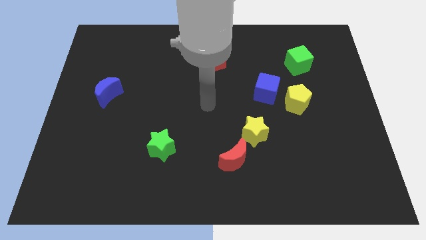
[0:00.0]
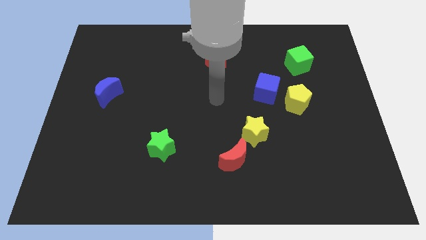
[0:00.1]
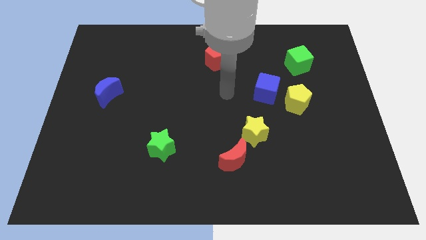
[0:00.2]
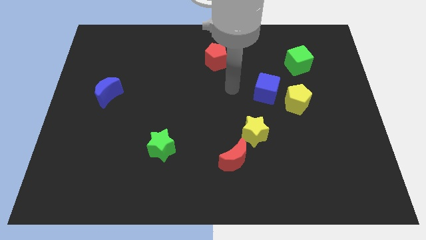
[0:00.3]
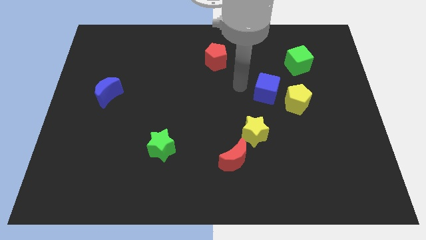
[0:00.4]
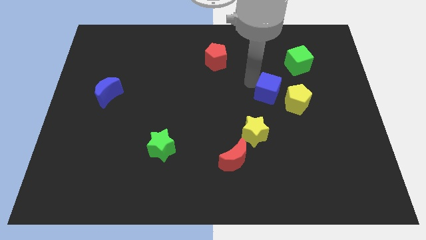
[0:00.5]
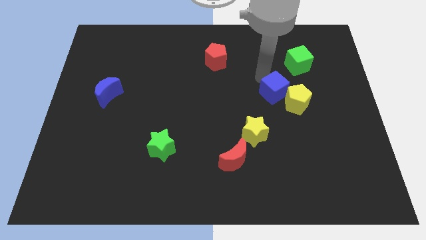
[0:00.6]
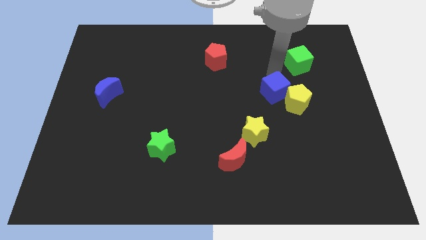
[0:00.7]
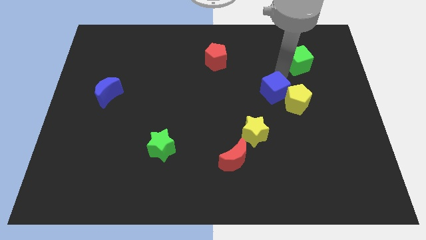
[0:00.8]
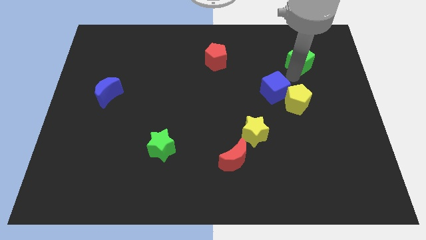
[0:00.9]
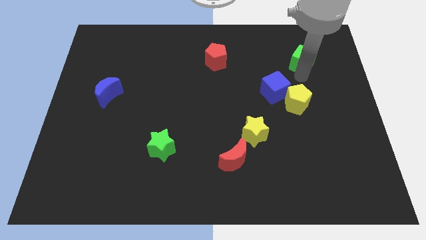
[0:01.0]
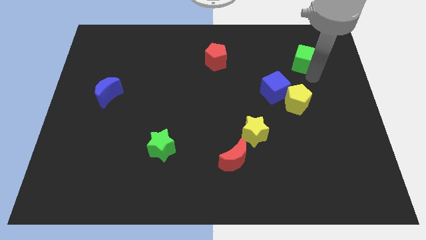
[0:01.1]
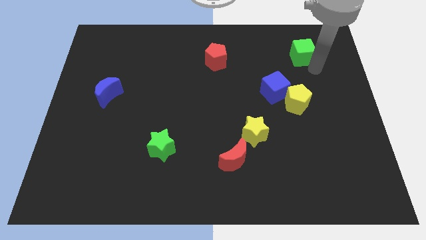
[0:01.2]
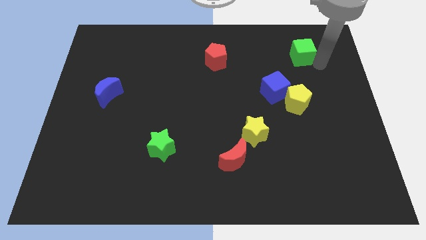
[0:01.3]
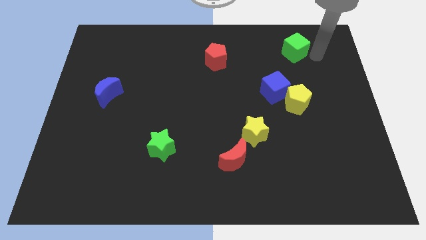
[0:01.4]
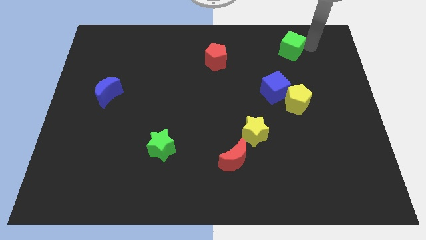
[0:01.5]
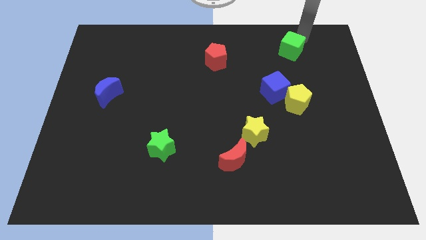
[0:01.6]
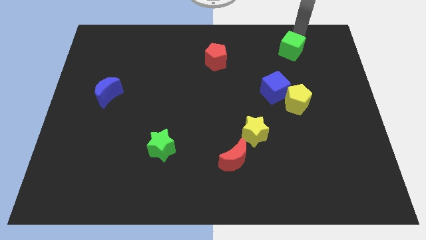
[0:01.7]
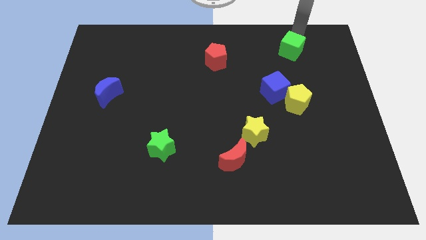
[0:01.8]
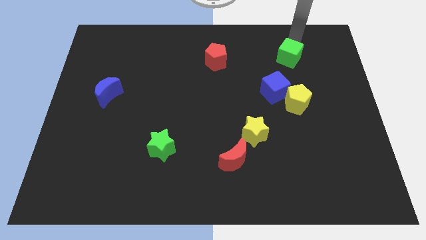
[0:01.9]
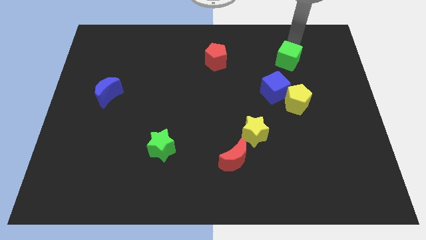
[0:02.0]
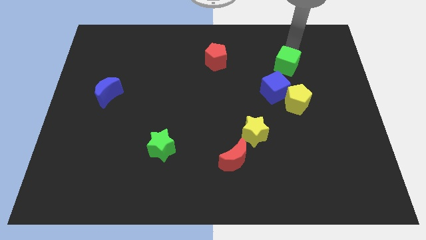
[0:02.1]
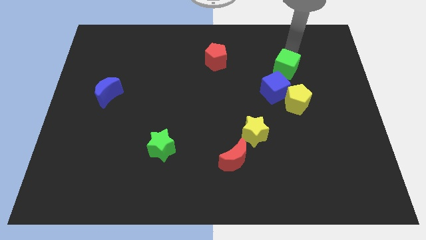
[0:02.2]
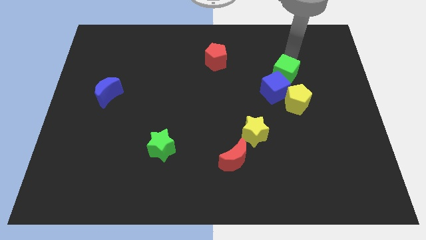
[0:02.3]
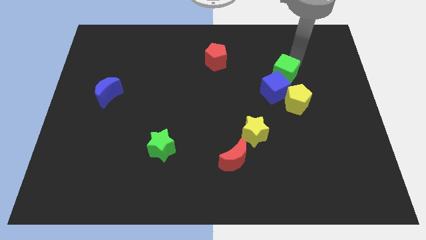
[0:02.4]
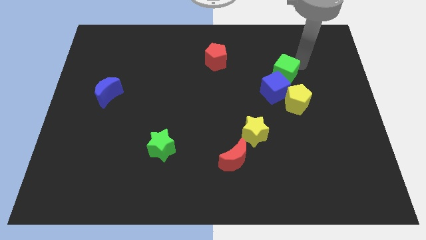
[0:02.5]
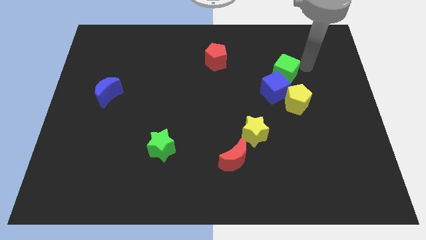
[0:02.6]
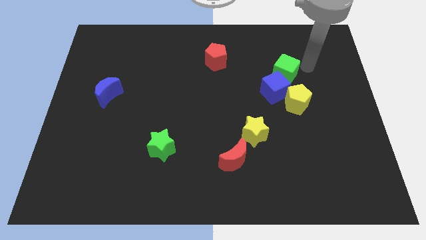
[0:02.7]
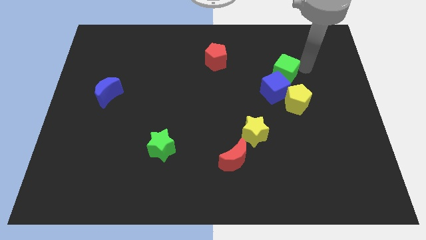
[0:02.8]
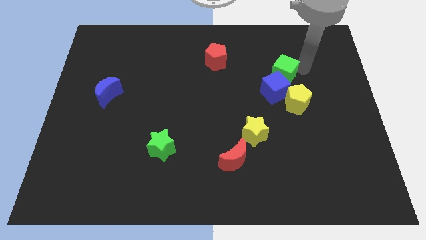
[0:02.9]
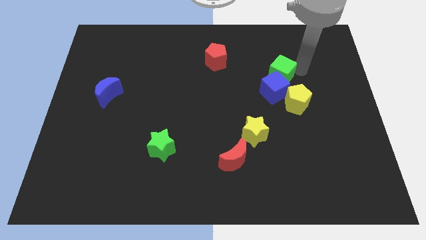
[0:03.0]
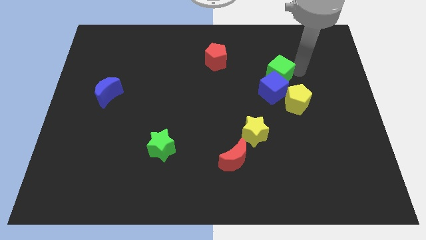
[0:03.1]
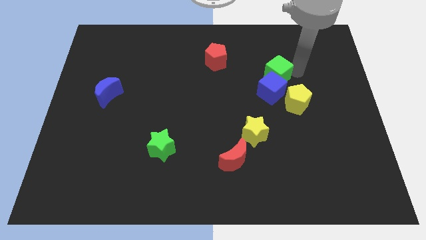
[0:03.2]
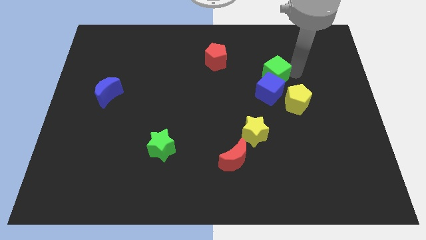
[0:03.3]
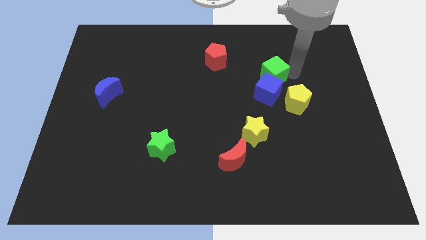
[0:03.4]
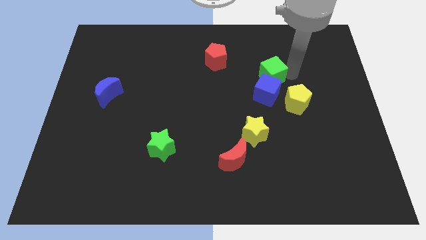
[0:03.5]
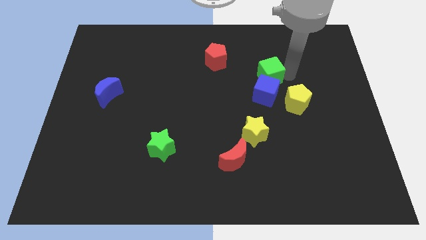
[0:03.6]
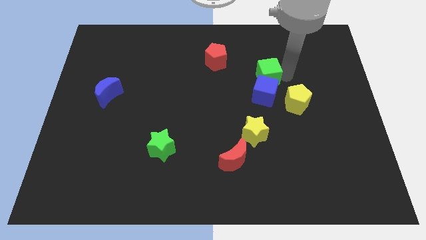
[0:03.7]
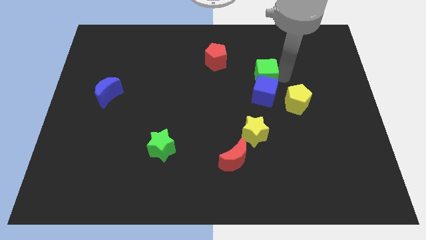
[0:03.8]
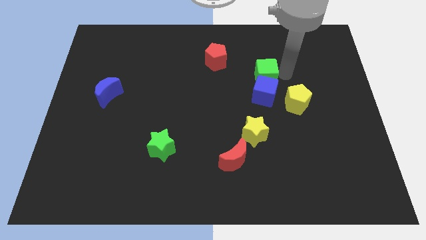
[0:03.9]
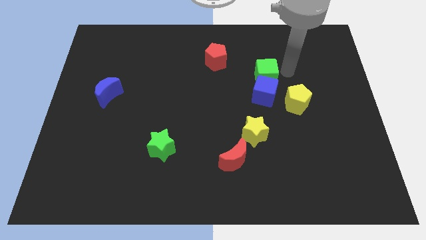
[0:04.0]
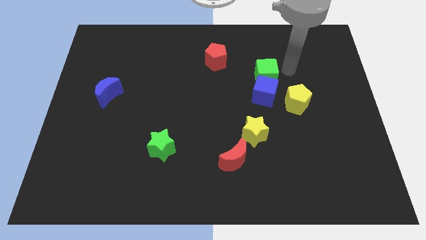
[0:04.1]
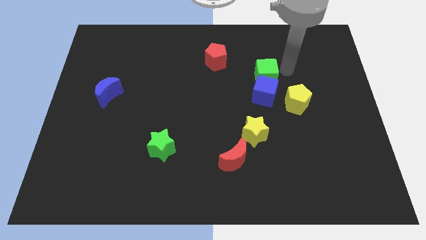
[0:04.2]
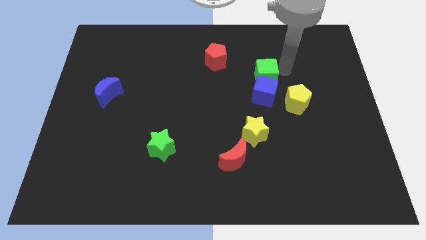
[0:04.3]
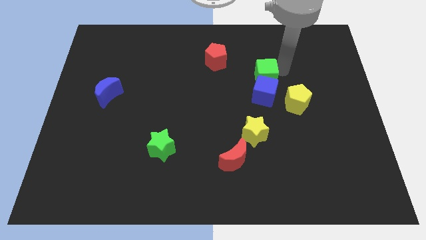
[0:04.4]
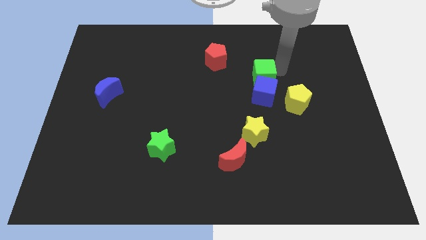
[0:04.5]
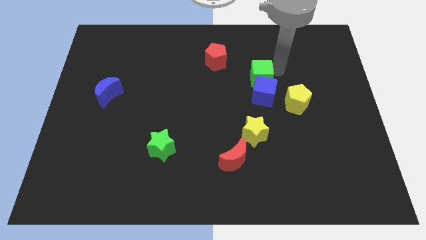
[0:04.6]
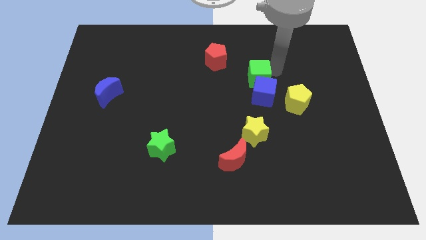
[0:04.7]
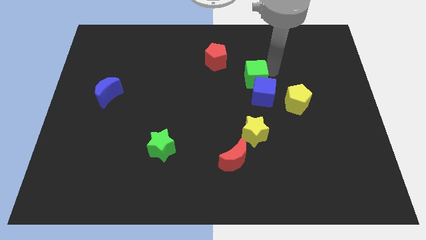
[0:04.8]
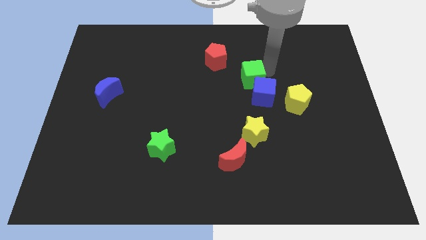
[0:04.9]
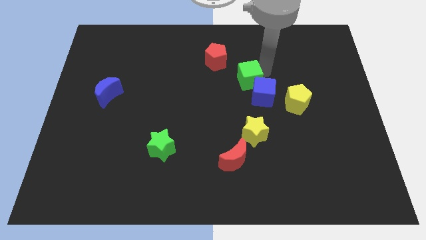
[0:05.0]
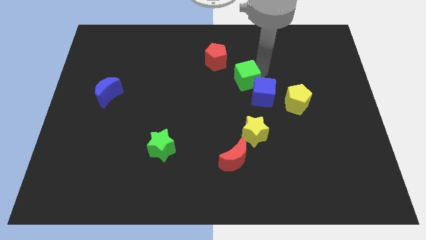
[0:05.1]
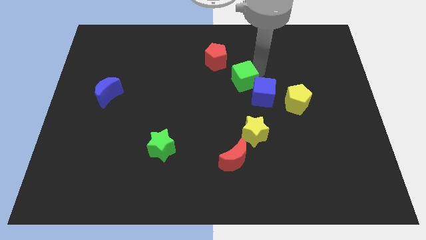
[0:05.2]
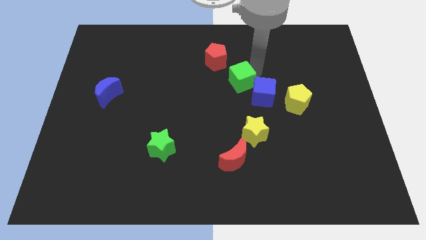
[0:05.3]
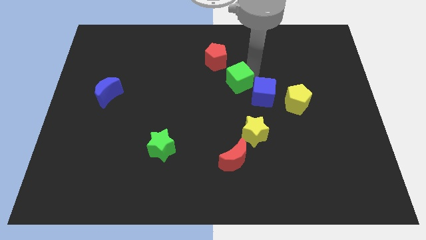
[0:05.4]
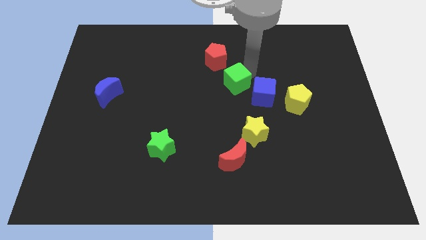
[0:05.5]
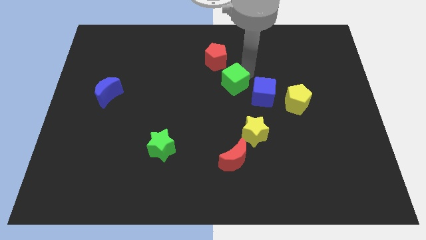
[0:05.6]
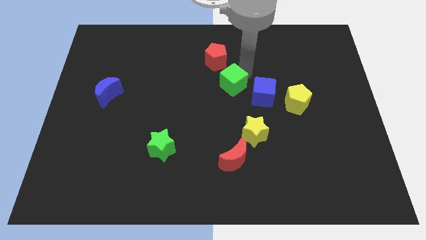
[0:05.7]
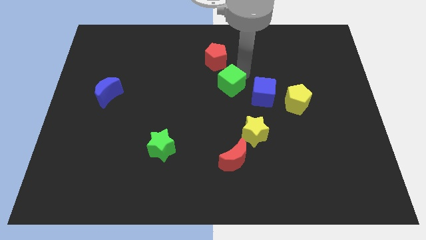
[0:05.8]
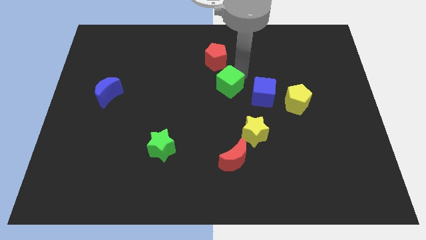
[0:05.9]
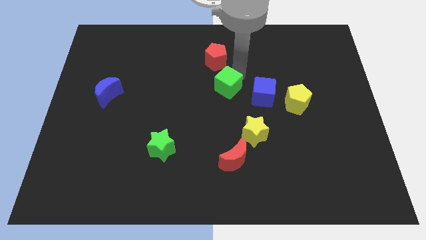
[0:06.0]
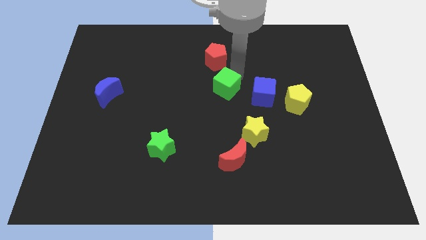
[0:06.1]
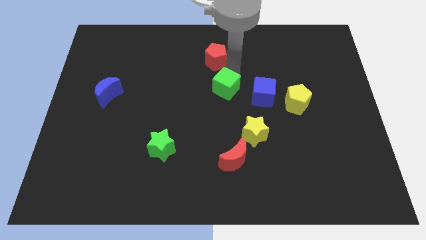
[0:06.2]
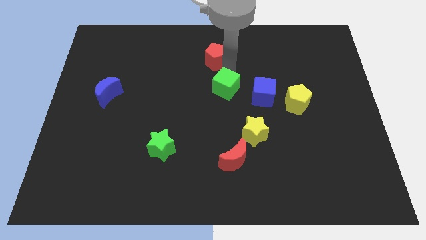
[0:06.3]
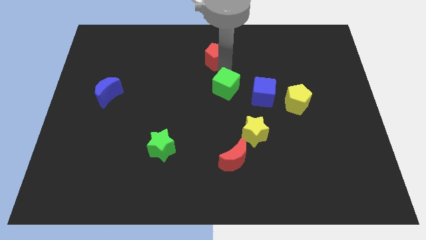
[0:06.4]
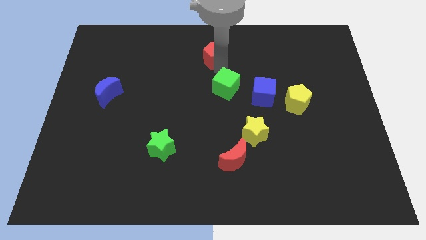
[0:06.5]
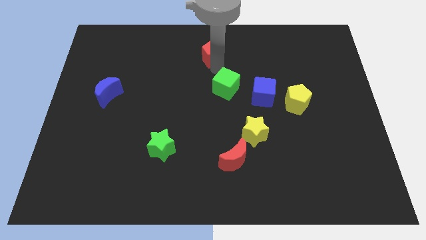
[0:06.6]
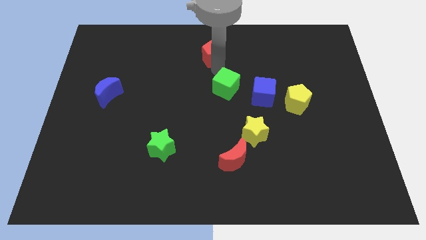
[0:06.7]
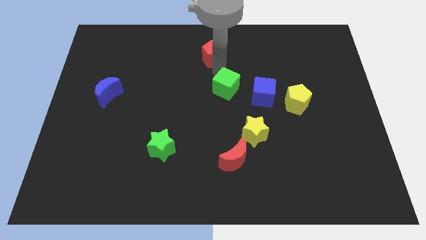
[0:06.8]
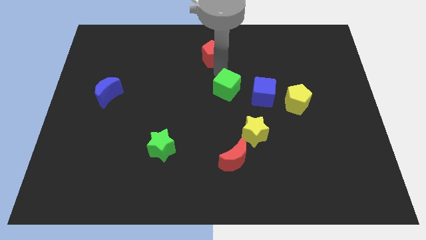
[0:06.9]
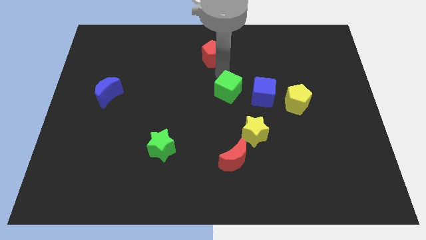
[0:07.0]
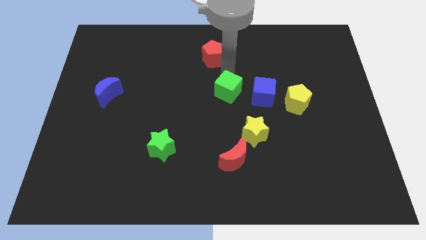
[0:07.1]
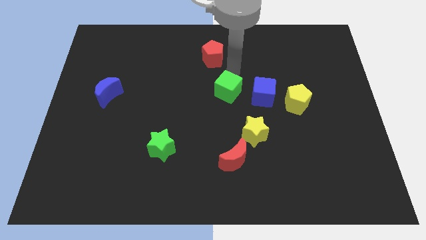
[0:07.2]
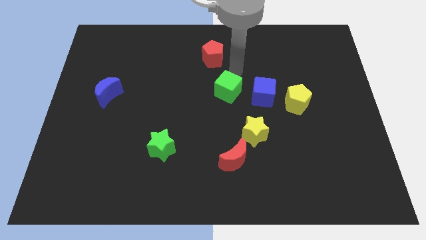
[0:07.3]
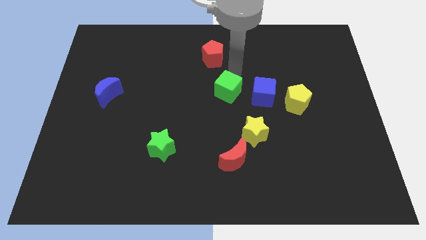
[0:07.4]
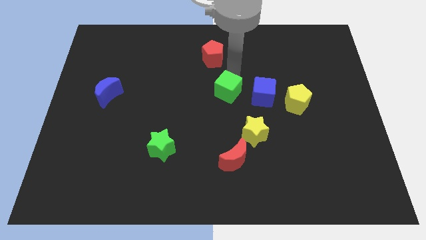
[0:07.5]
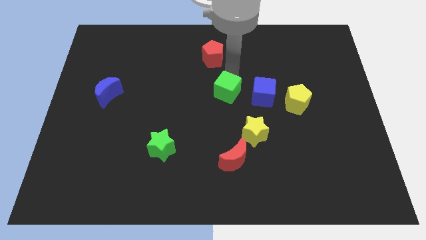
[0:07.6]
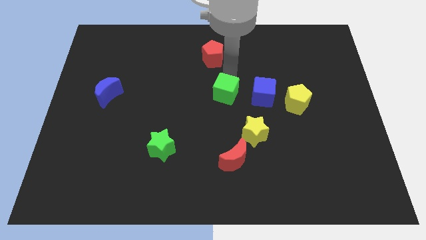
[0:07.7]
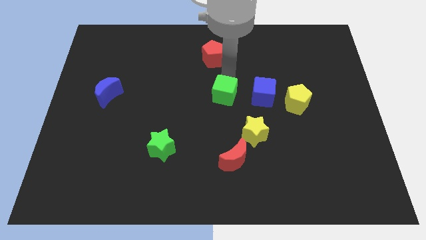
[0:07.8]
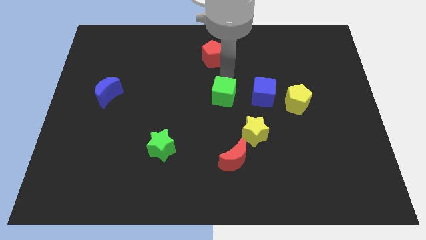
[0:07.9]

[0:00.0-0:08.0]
slide the green cube downwards and left
